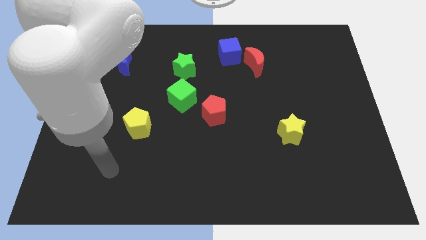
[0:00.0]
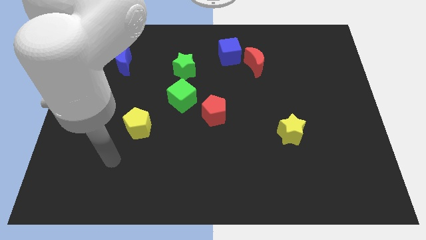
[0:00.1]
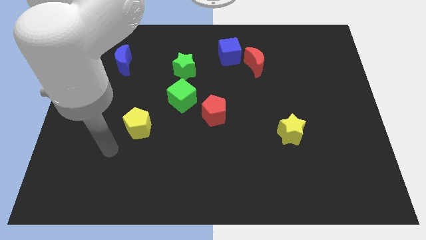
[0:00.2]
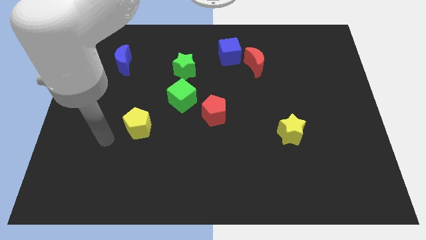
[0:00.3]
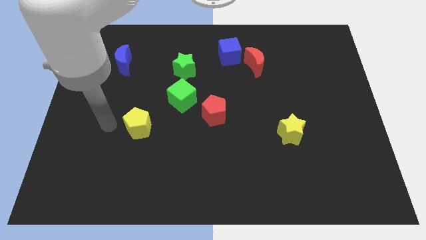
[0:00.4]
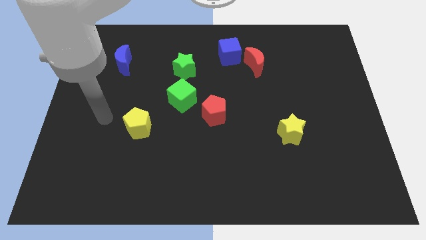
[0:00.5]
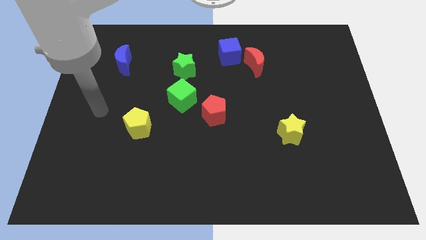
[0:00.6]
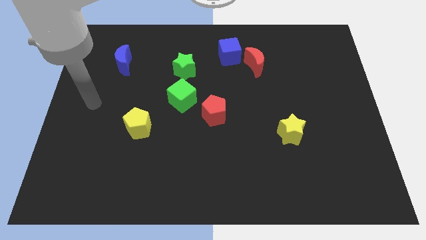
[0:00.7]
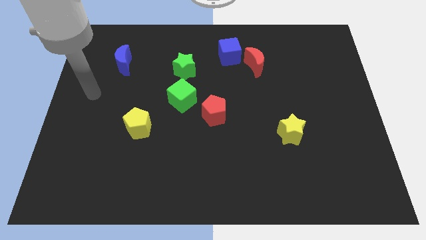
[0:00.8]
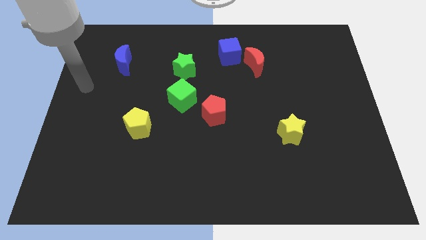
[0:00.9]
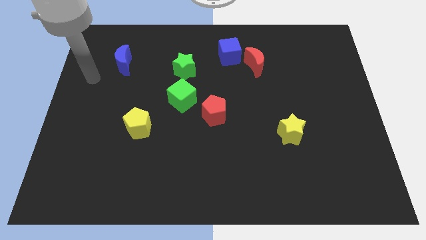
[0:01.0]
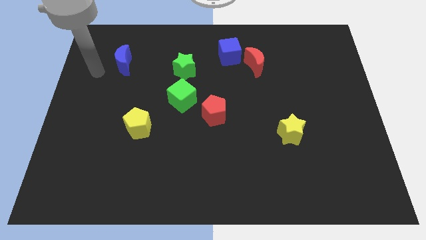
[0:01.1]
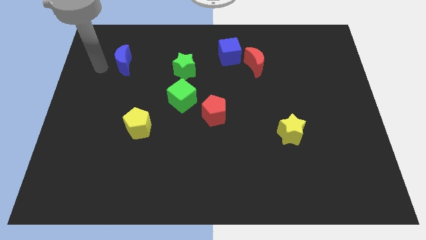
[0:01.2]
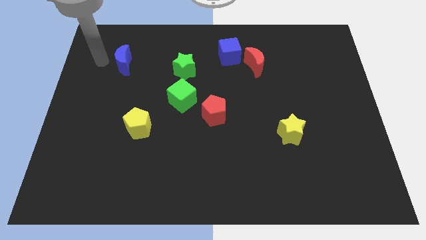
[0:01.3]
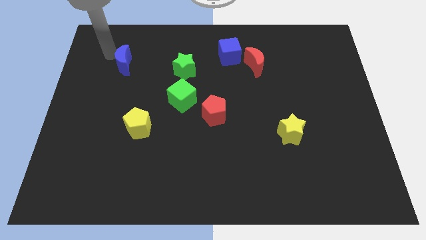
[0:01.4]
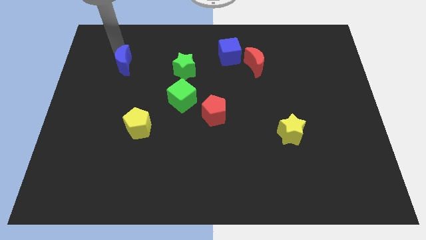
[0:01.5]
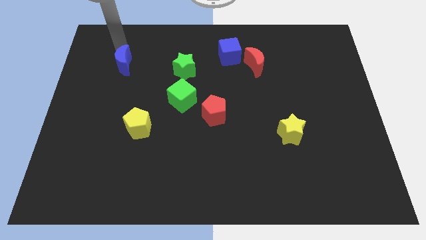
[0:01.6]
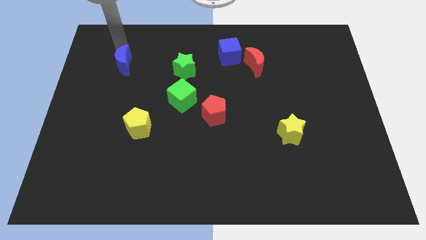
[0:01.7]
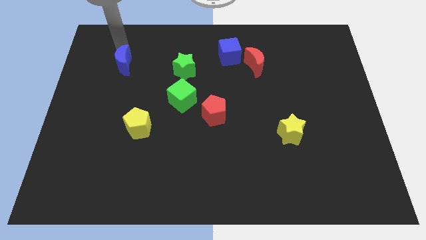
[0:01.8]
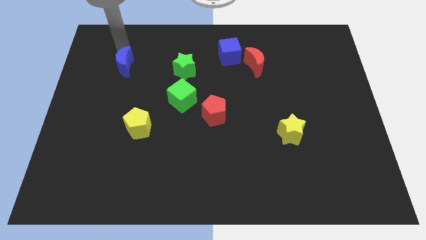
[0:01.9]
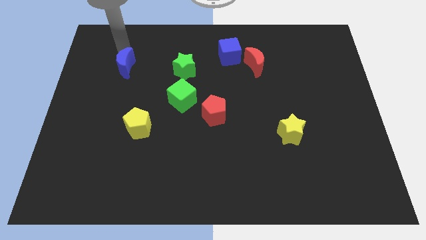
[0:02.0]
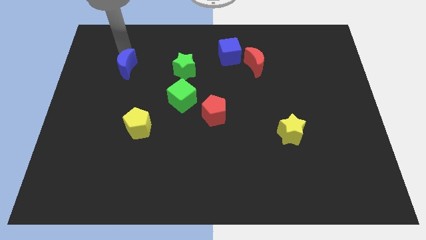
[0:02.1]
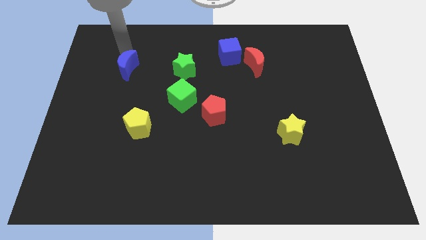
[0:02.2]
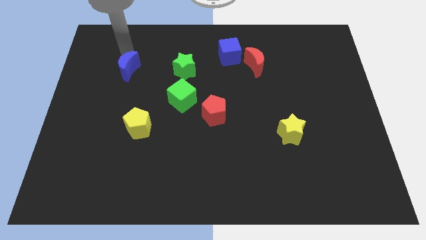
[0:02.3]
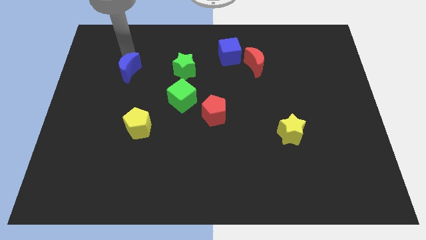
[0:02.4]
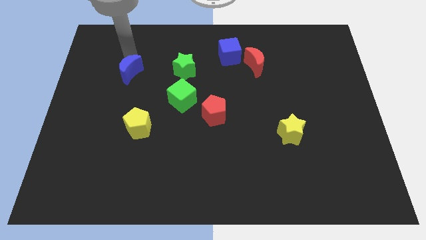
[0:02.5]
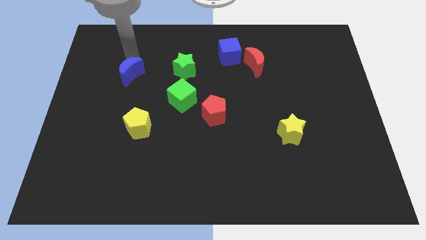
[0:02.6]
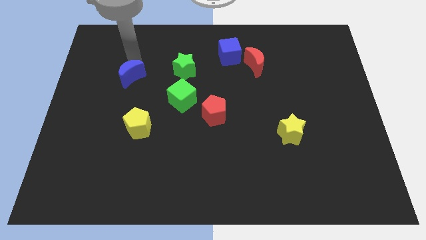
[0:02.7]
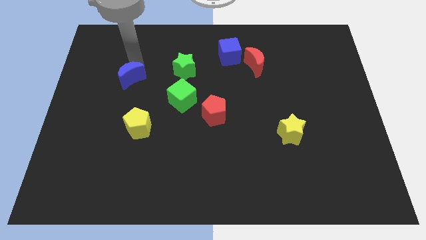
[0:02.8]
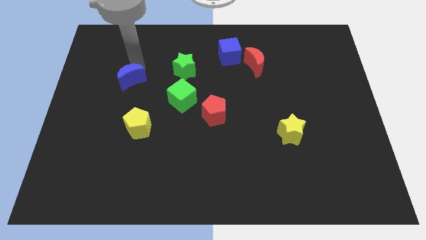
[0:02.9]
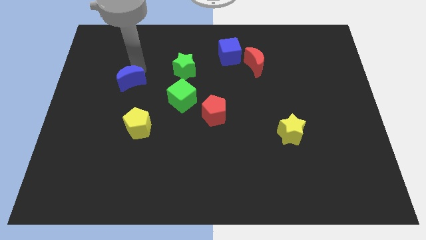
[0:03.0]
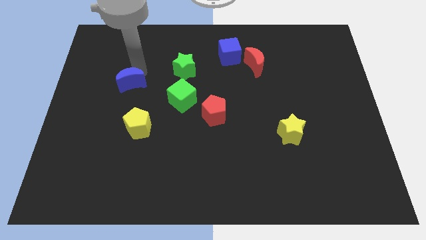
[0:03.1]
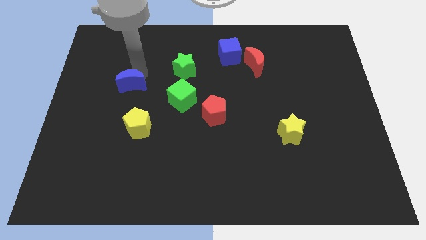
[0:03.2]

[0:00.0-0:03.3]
slightly slide the blue moon down

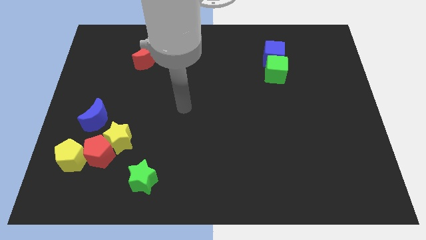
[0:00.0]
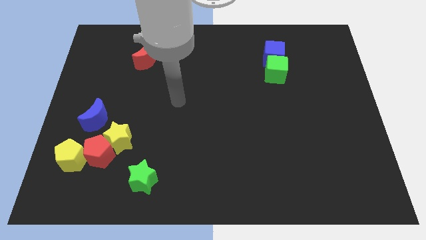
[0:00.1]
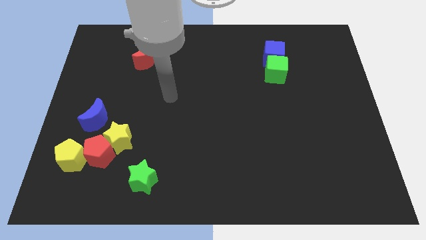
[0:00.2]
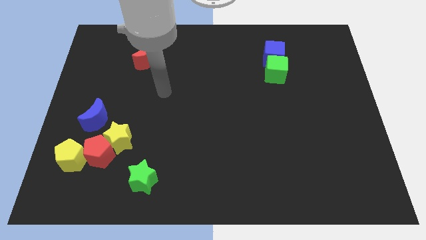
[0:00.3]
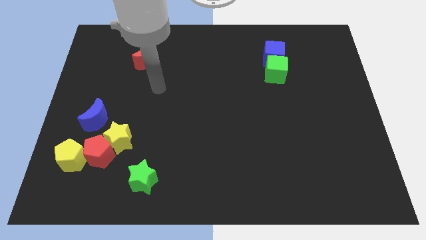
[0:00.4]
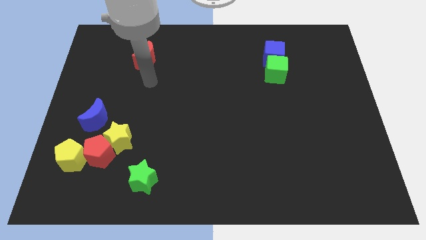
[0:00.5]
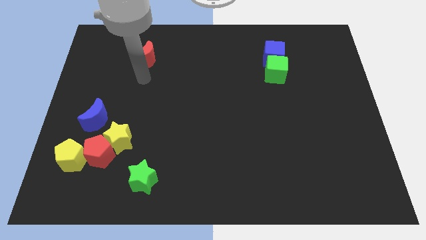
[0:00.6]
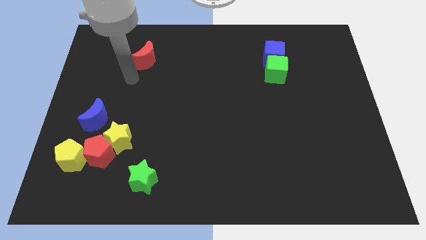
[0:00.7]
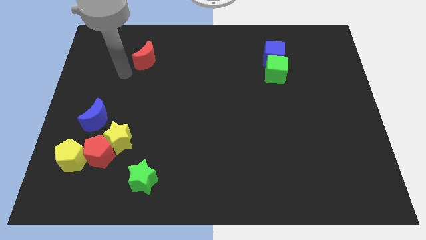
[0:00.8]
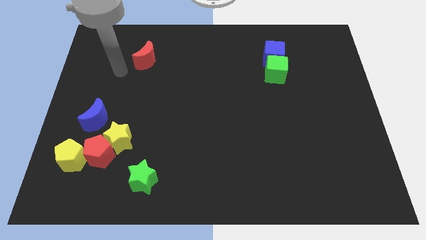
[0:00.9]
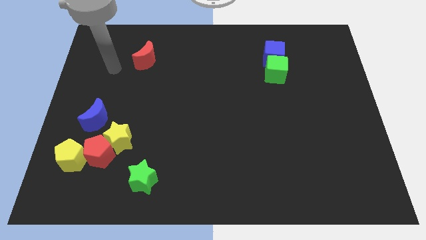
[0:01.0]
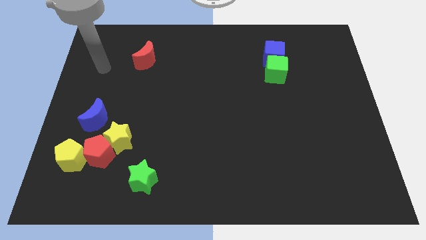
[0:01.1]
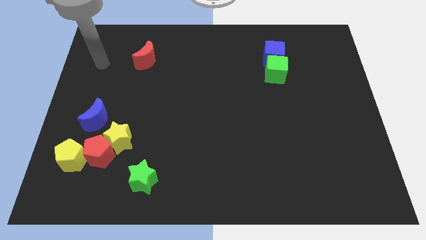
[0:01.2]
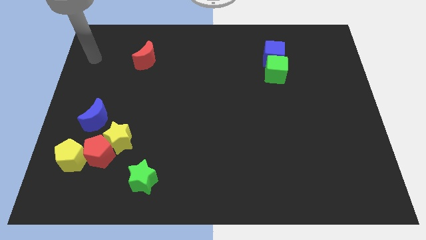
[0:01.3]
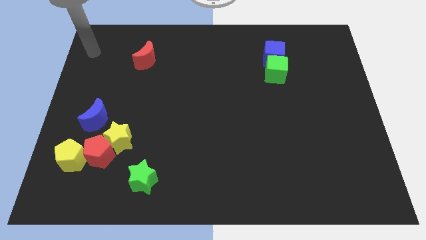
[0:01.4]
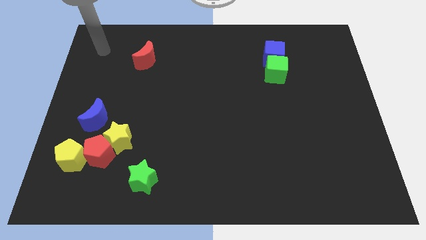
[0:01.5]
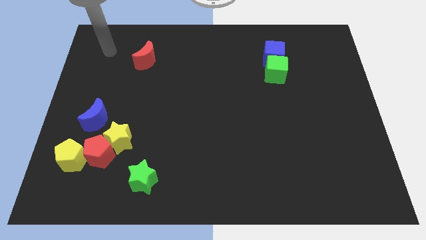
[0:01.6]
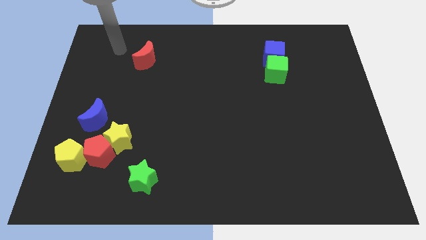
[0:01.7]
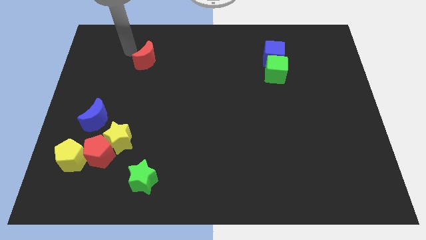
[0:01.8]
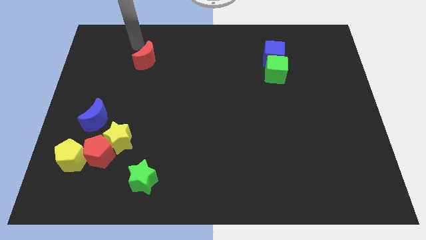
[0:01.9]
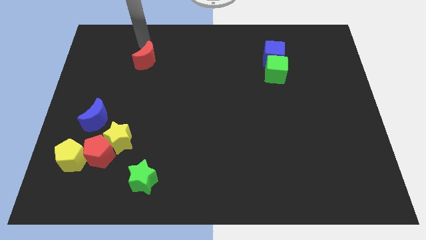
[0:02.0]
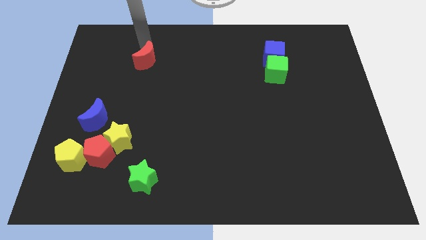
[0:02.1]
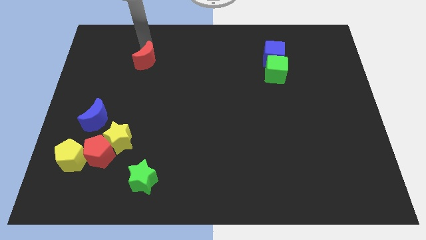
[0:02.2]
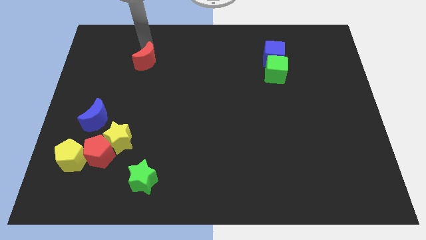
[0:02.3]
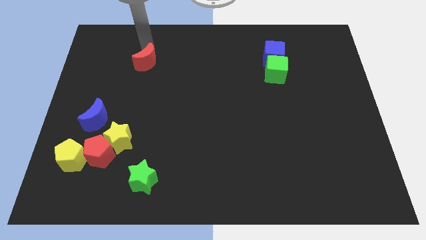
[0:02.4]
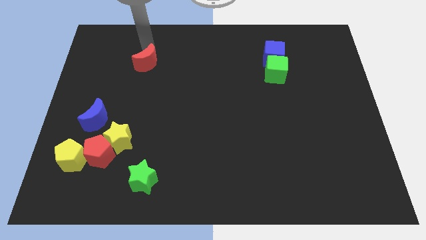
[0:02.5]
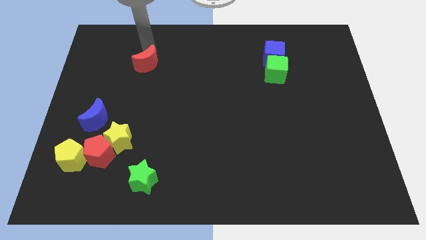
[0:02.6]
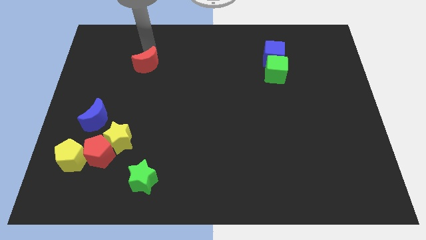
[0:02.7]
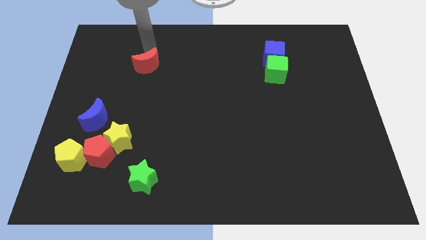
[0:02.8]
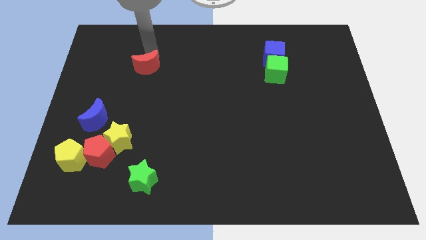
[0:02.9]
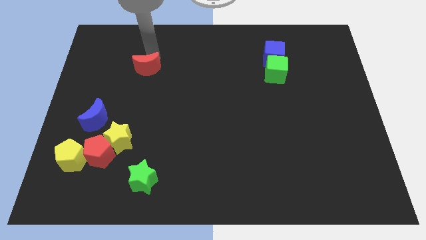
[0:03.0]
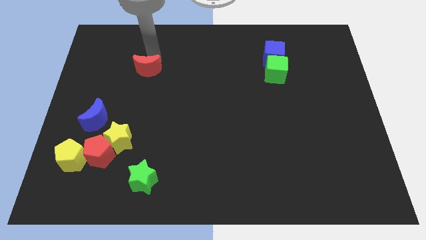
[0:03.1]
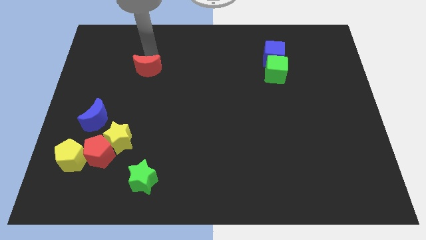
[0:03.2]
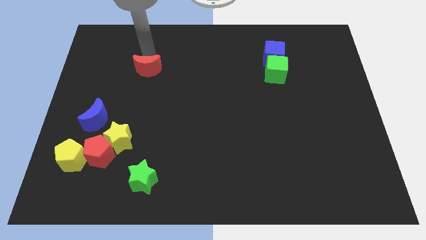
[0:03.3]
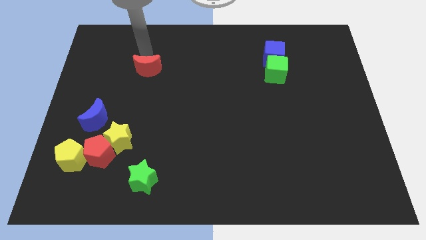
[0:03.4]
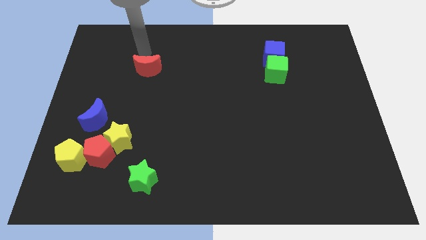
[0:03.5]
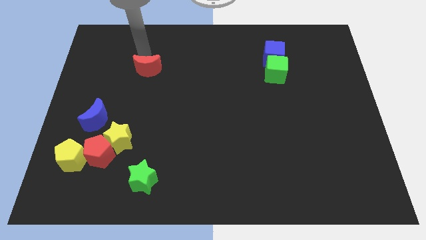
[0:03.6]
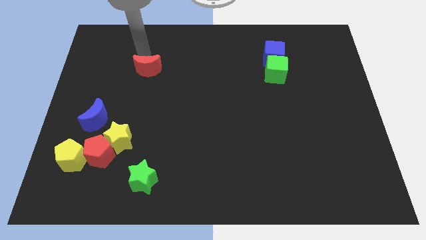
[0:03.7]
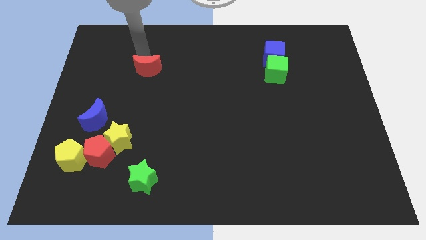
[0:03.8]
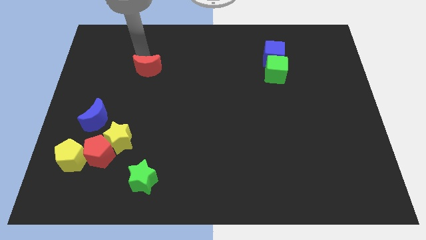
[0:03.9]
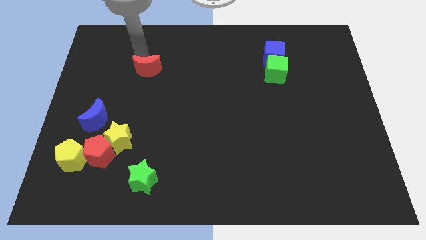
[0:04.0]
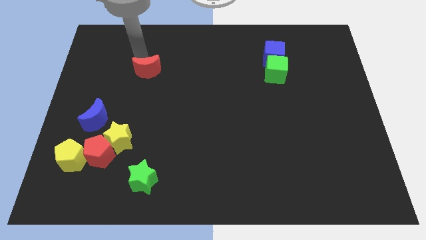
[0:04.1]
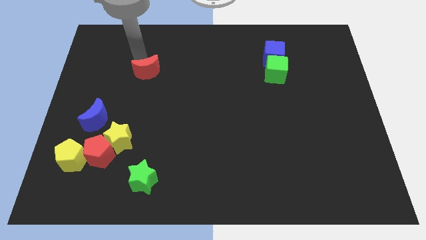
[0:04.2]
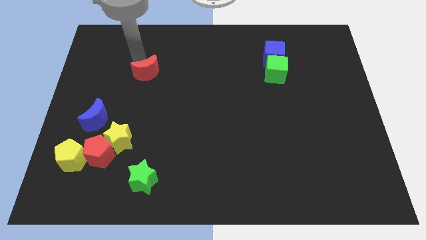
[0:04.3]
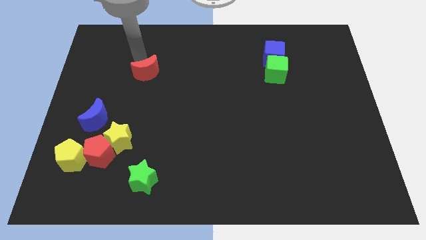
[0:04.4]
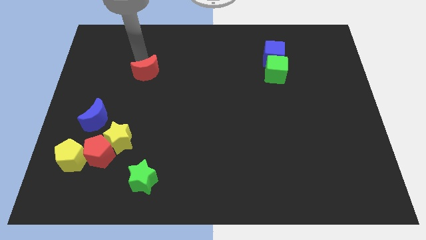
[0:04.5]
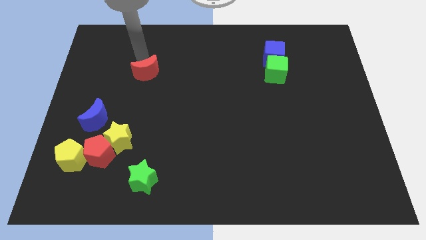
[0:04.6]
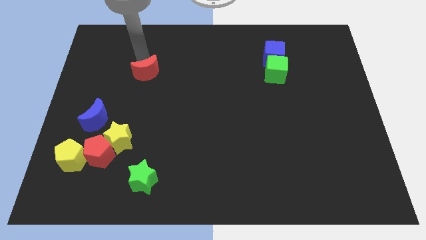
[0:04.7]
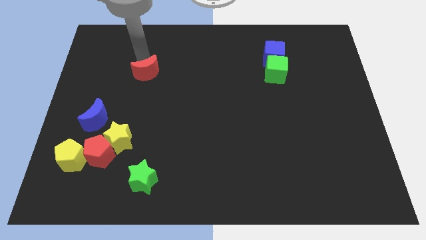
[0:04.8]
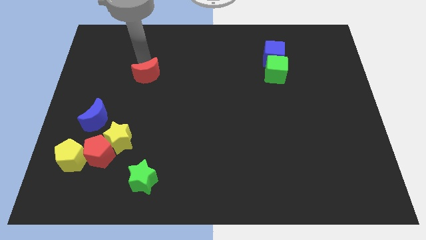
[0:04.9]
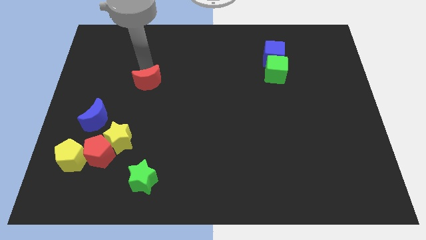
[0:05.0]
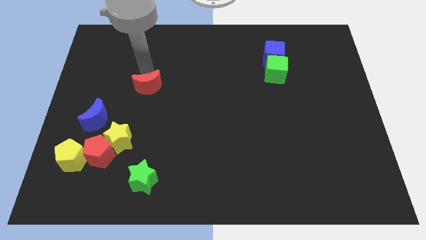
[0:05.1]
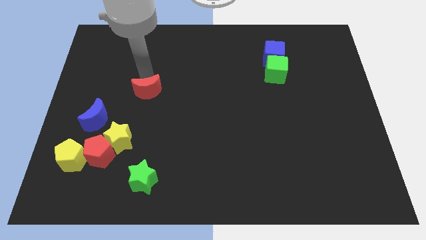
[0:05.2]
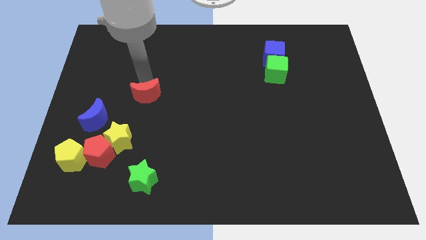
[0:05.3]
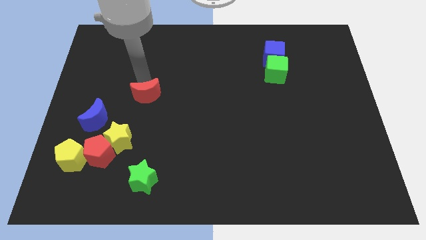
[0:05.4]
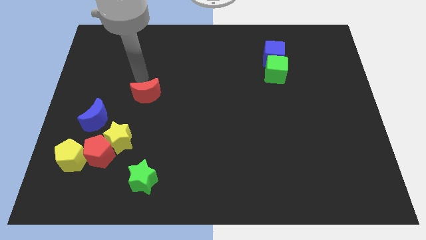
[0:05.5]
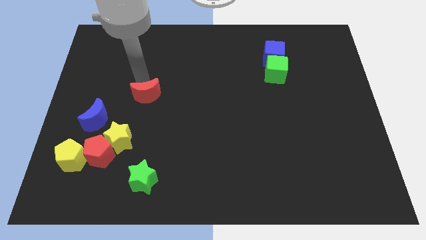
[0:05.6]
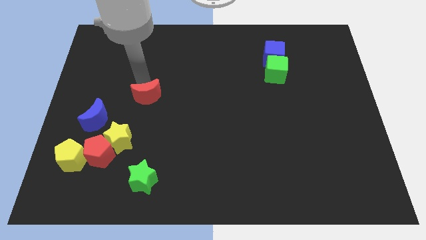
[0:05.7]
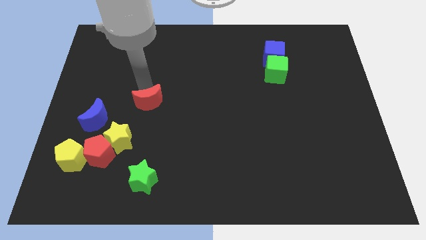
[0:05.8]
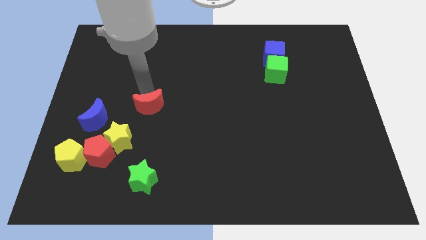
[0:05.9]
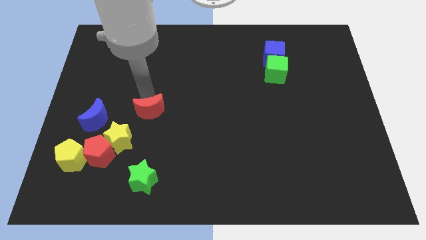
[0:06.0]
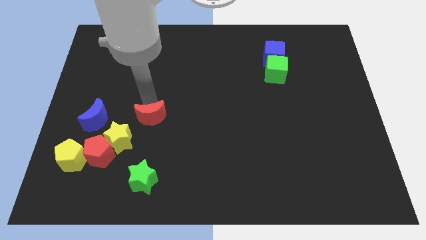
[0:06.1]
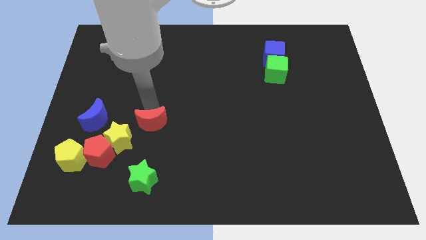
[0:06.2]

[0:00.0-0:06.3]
slide the red moon down
